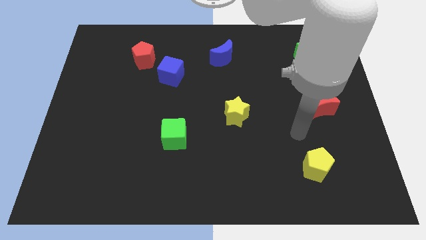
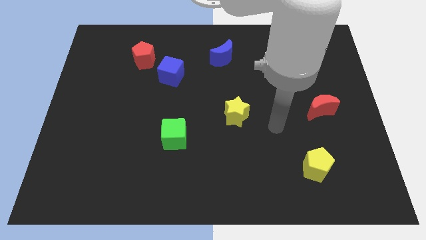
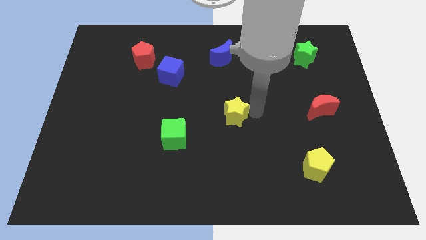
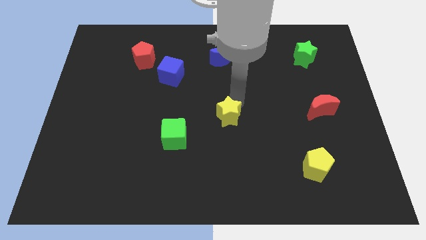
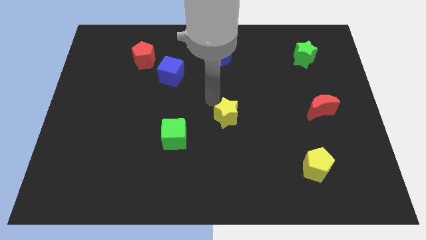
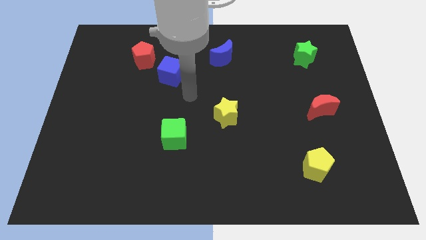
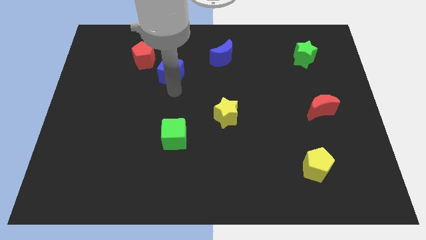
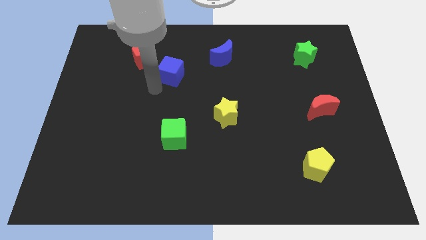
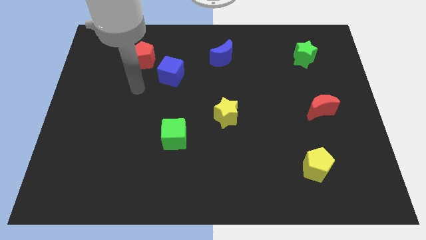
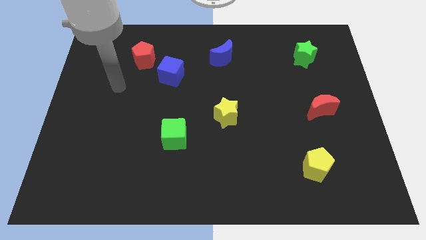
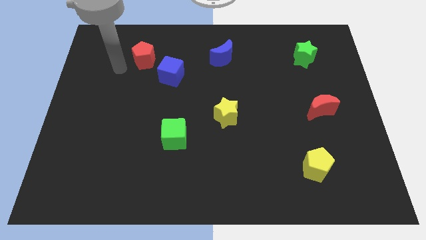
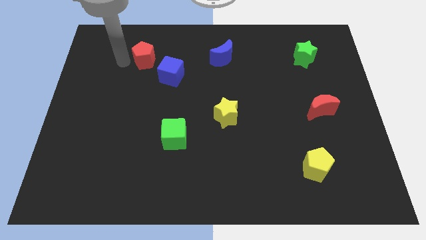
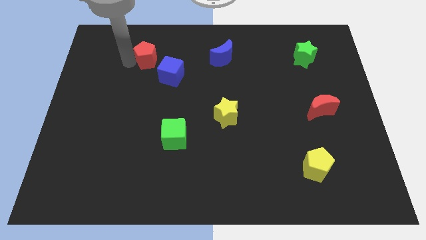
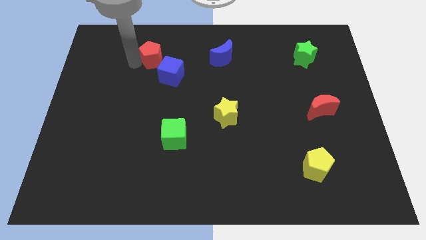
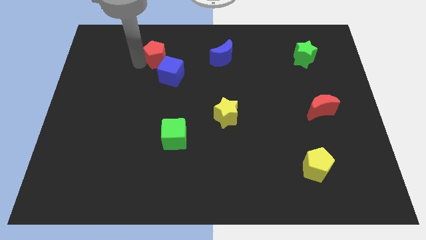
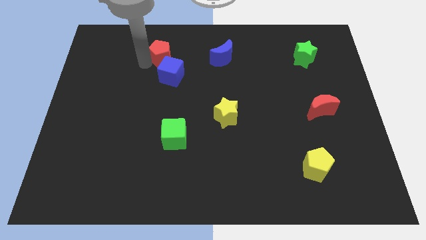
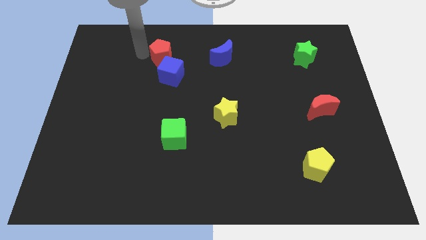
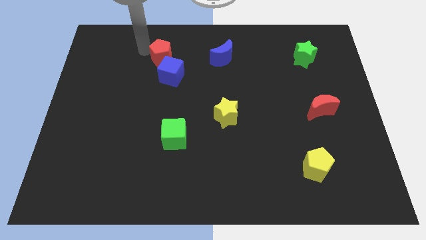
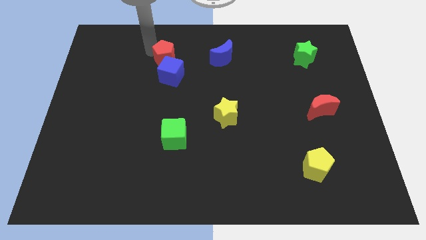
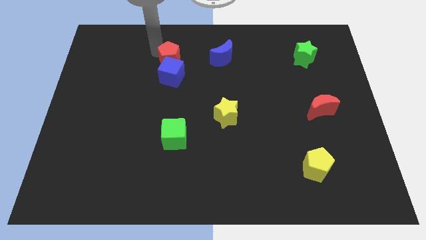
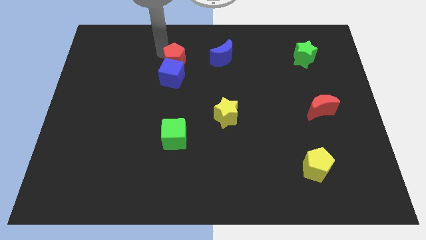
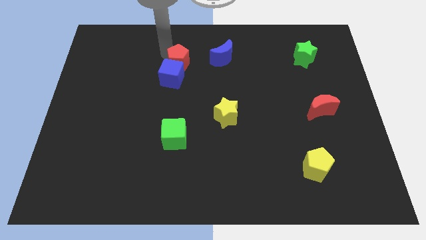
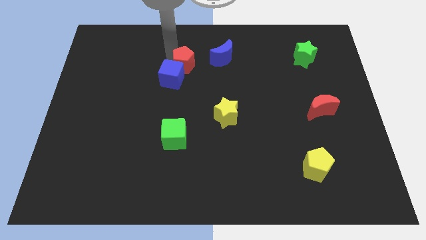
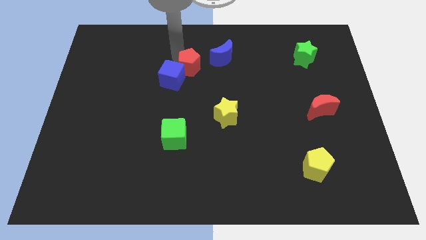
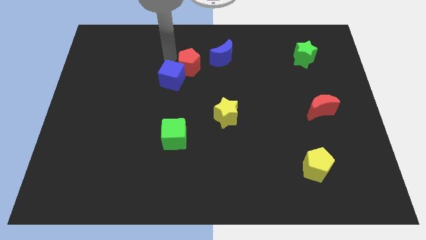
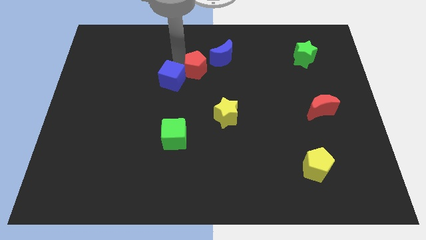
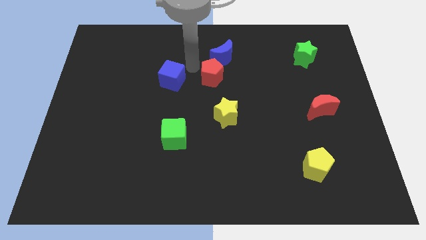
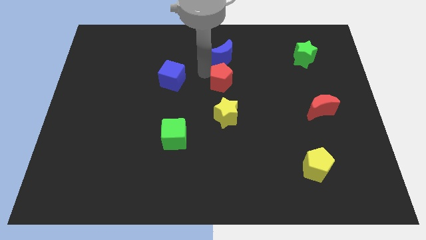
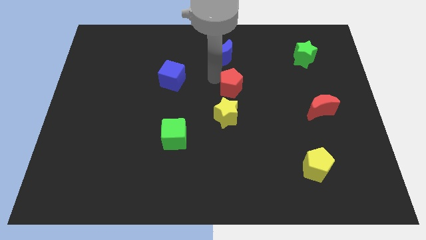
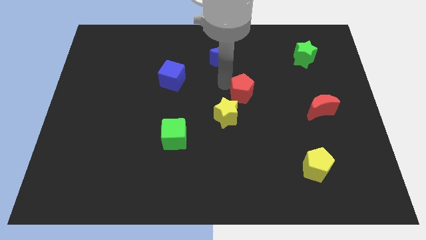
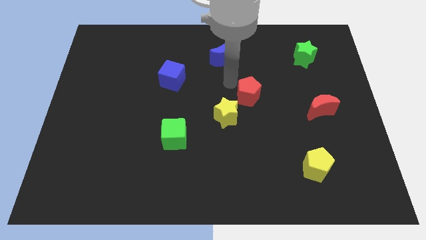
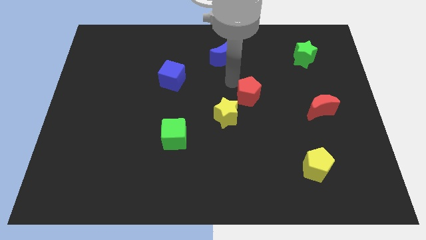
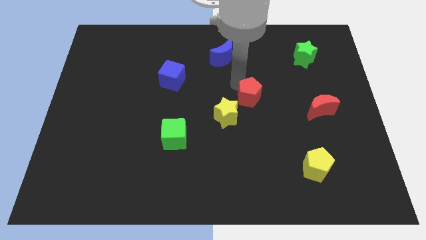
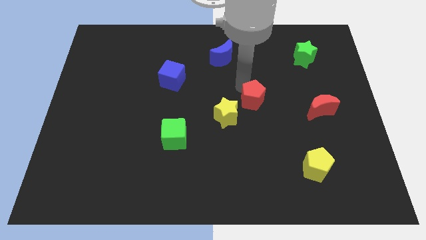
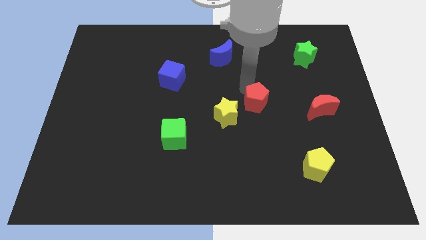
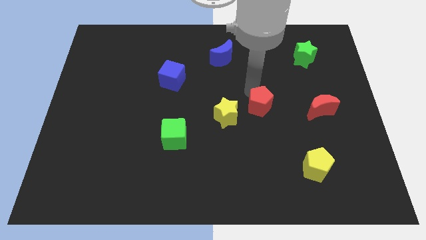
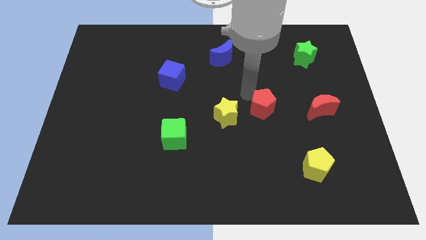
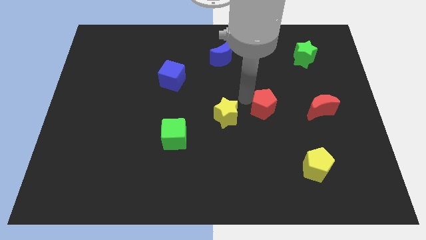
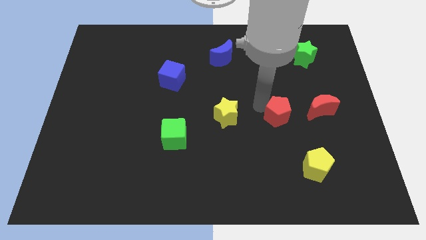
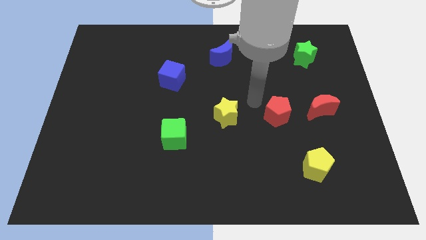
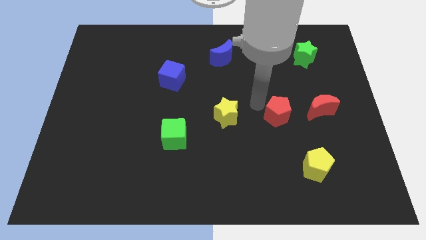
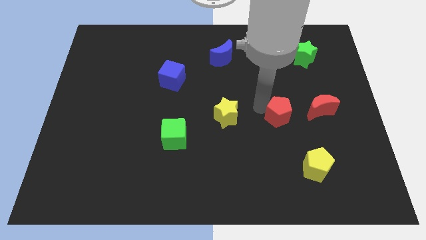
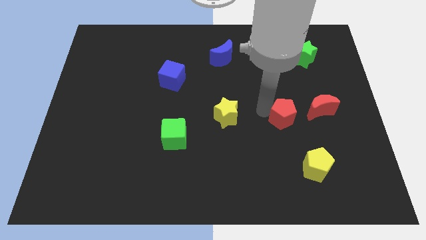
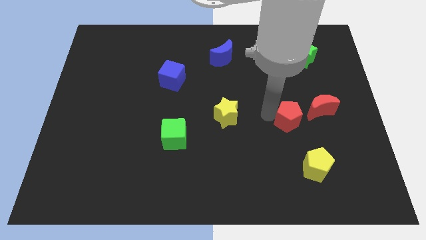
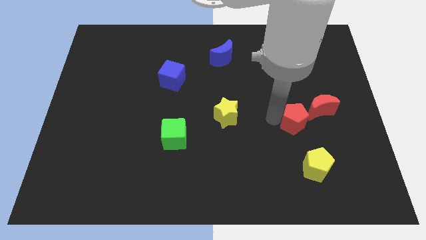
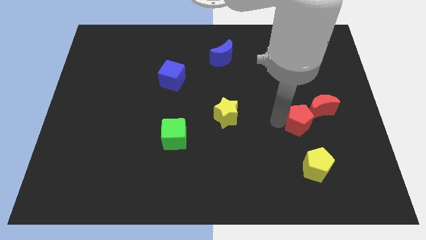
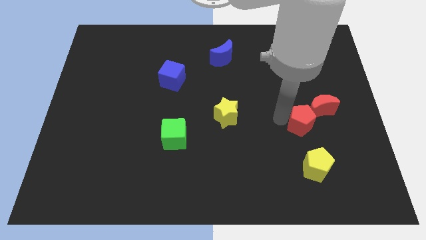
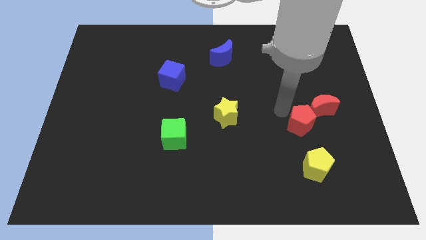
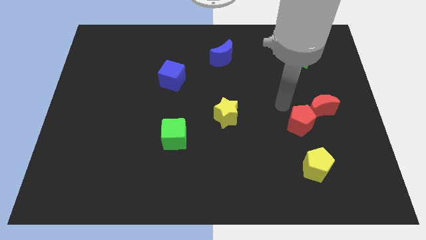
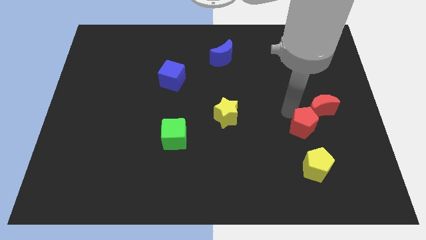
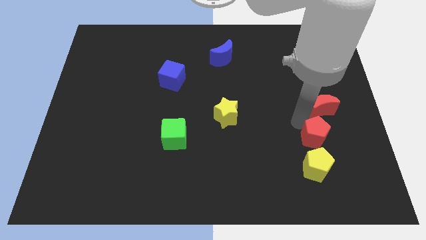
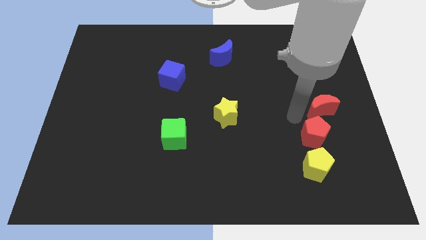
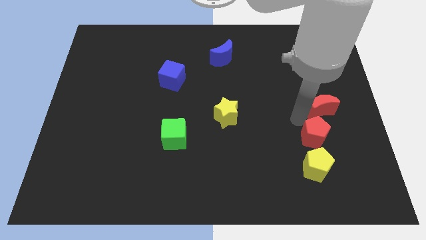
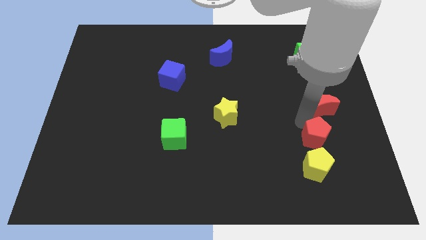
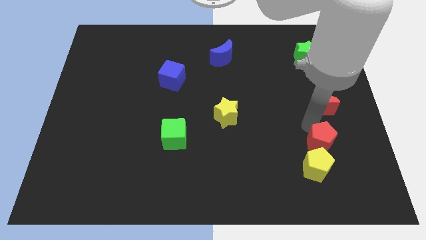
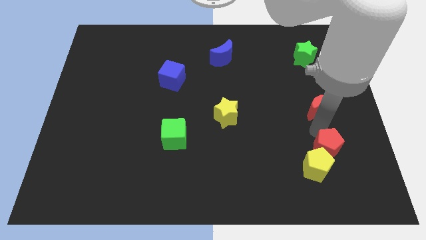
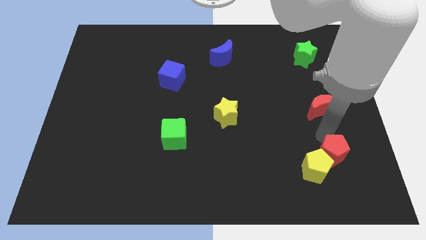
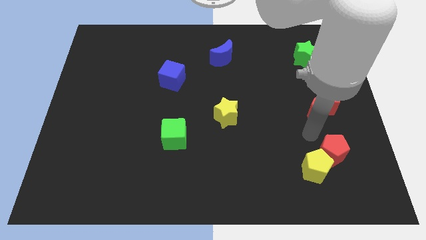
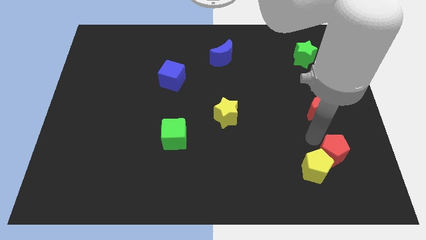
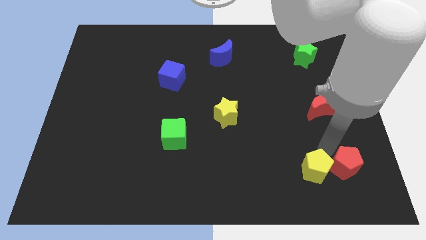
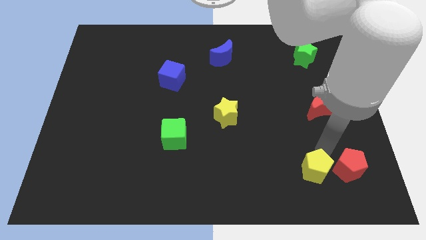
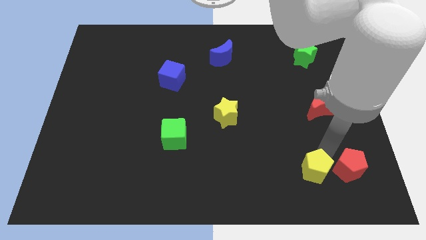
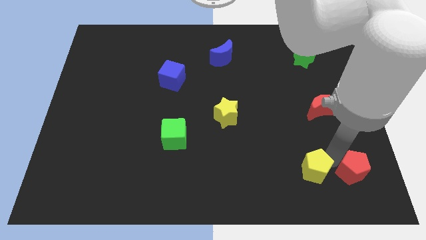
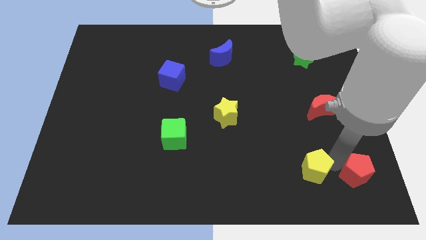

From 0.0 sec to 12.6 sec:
push the red pentagon to the bottom right of the board
